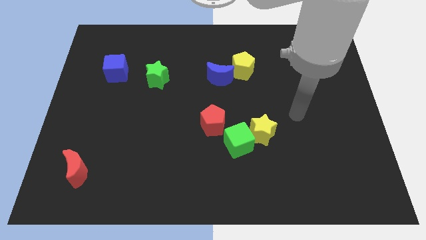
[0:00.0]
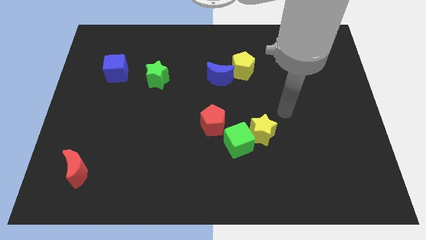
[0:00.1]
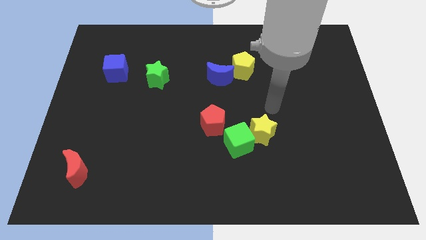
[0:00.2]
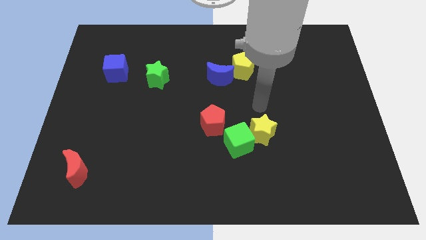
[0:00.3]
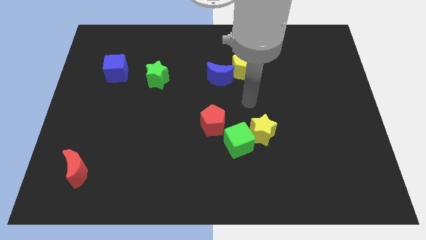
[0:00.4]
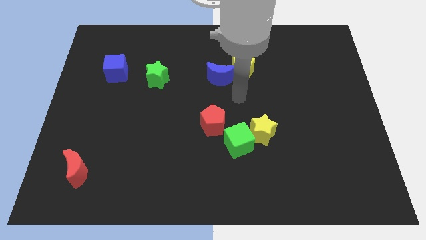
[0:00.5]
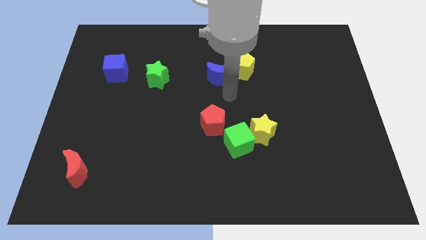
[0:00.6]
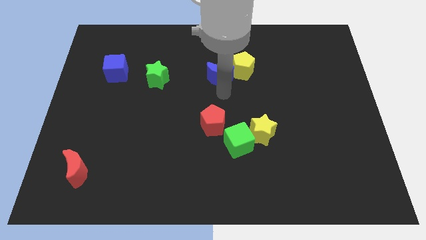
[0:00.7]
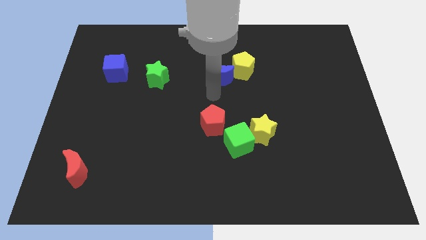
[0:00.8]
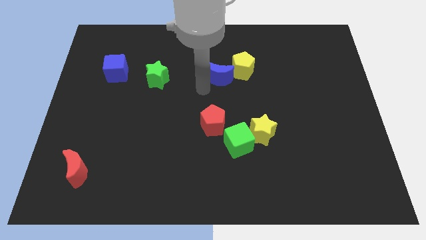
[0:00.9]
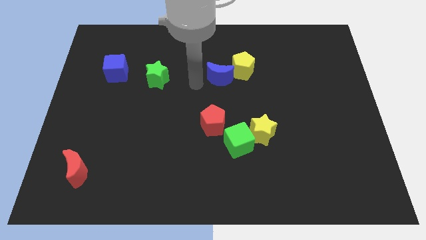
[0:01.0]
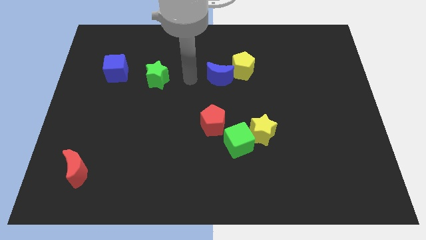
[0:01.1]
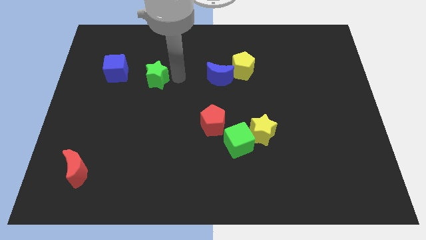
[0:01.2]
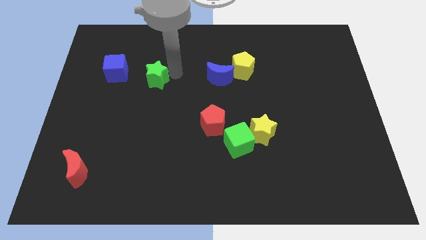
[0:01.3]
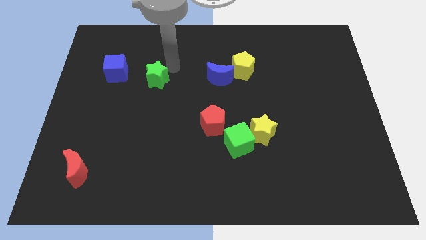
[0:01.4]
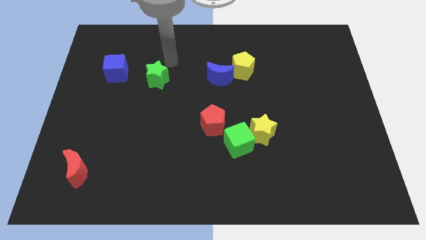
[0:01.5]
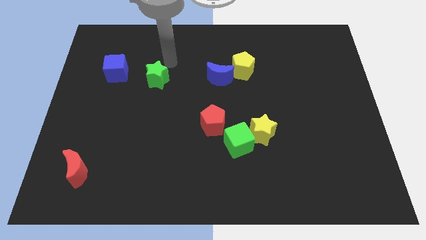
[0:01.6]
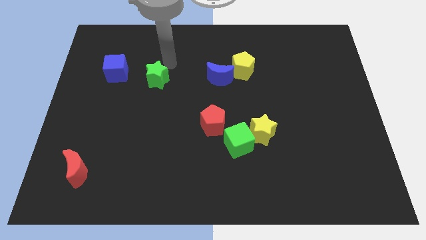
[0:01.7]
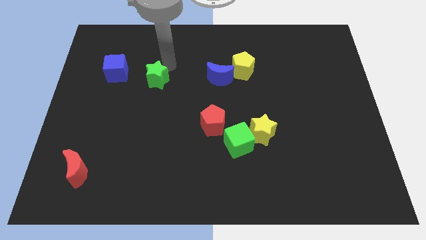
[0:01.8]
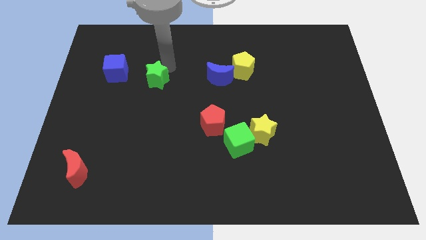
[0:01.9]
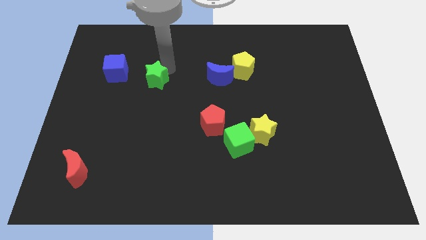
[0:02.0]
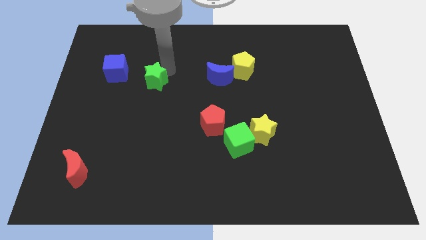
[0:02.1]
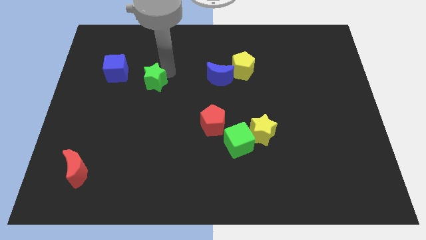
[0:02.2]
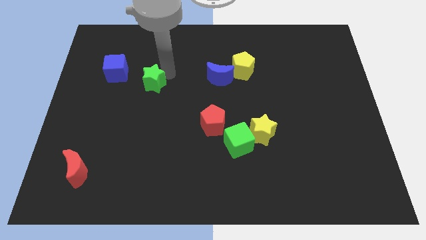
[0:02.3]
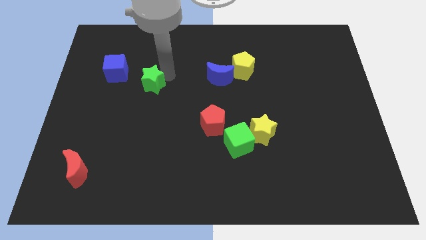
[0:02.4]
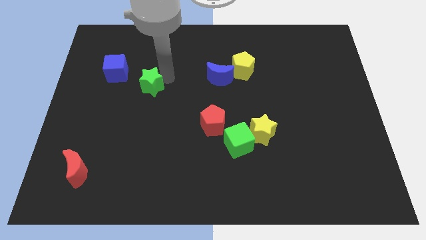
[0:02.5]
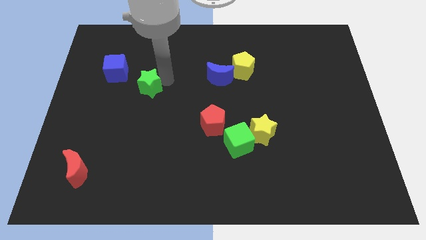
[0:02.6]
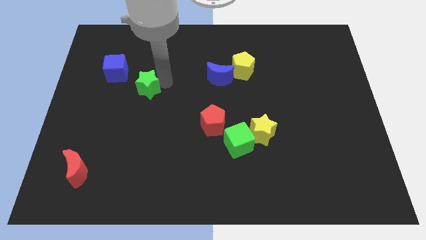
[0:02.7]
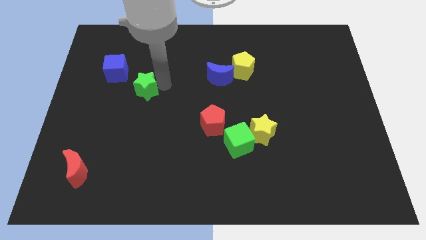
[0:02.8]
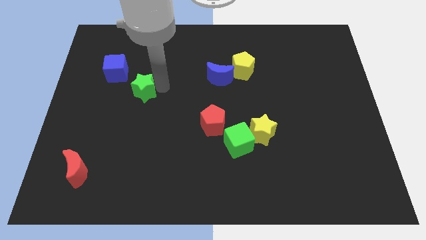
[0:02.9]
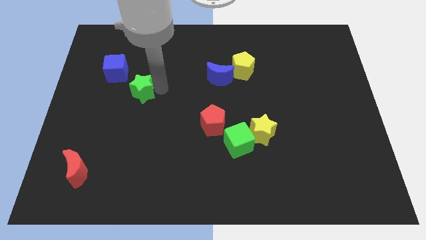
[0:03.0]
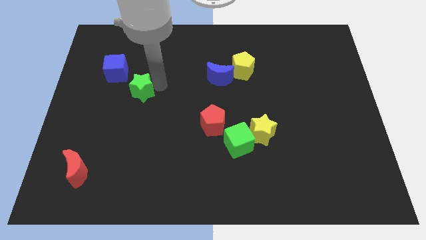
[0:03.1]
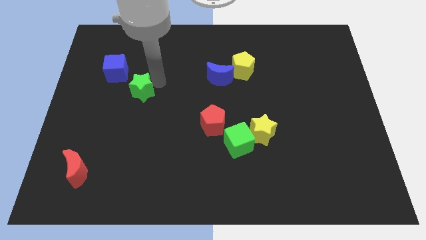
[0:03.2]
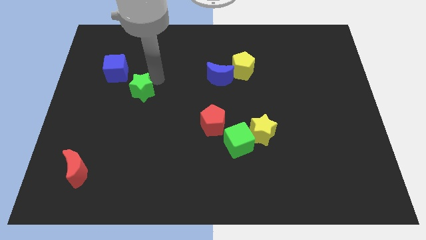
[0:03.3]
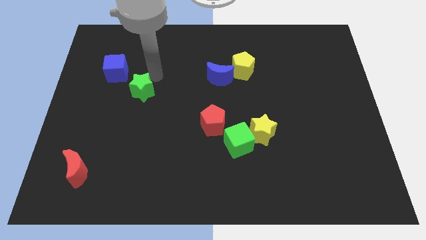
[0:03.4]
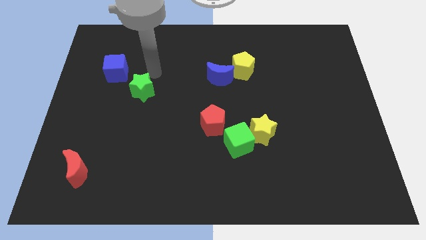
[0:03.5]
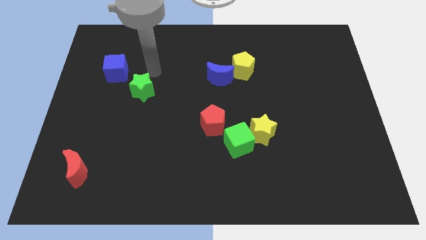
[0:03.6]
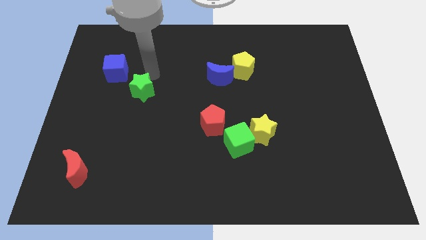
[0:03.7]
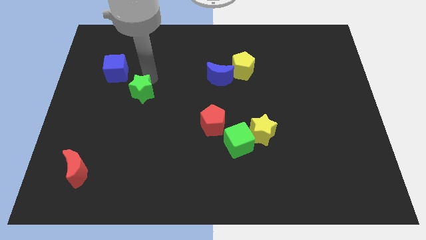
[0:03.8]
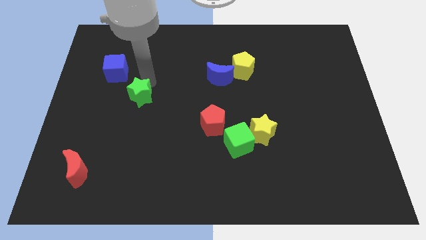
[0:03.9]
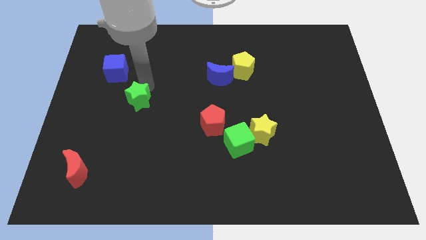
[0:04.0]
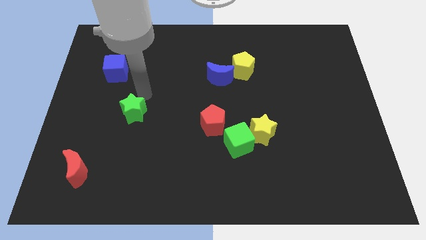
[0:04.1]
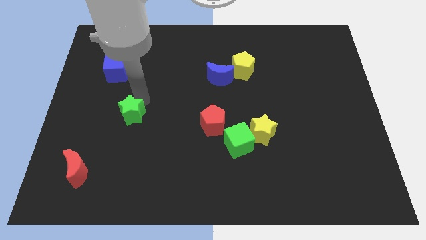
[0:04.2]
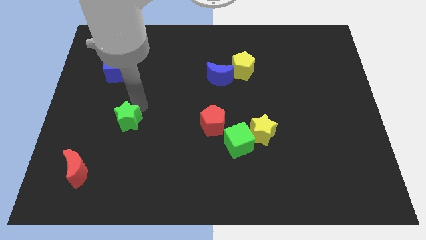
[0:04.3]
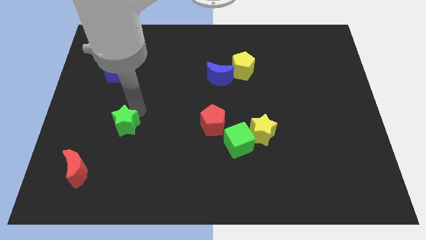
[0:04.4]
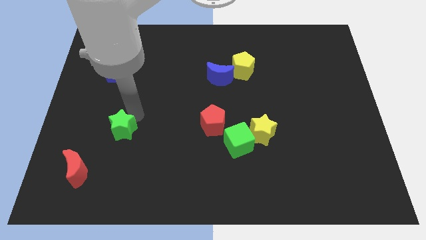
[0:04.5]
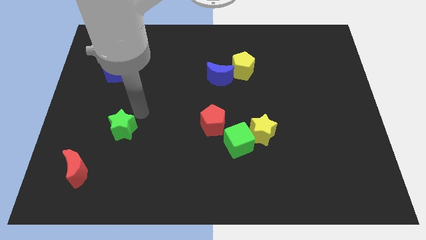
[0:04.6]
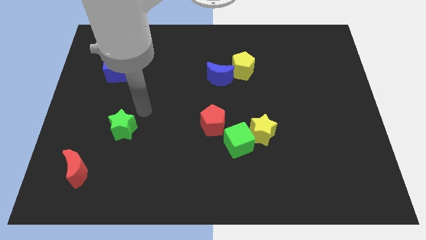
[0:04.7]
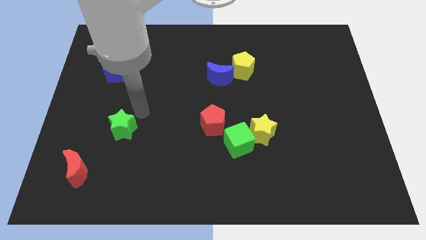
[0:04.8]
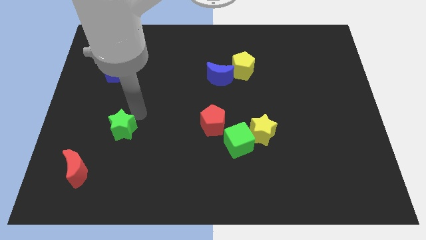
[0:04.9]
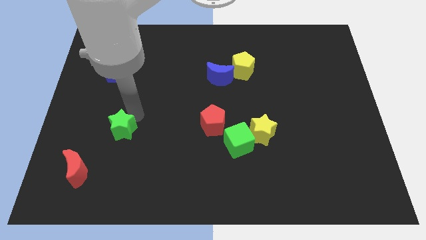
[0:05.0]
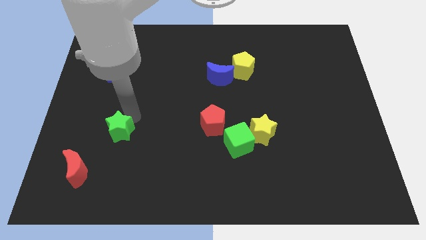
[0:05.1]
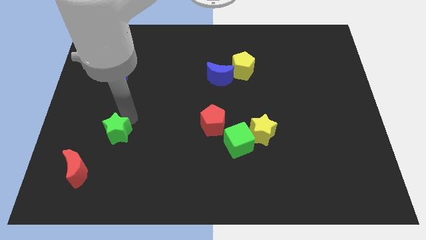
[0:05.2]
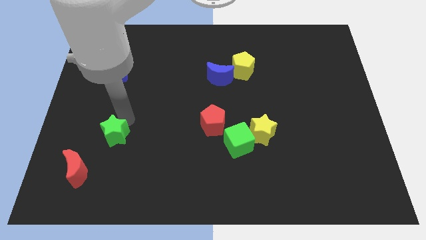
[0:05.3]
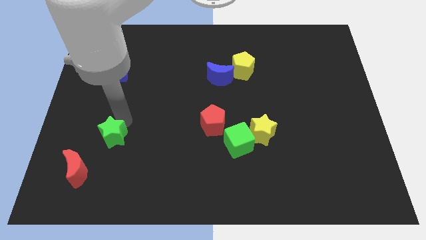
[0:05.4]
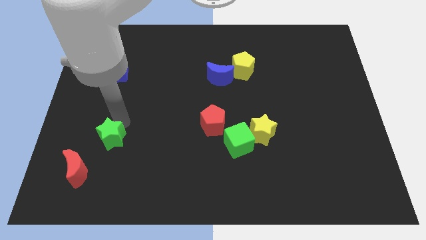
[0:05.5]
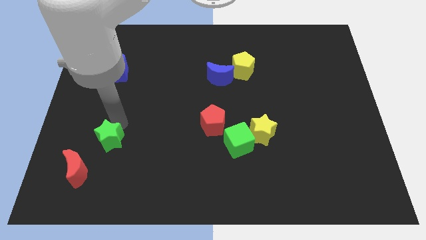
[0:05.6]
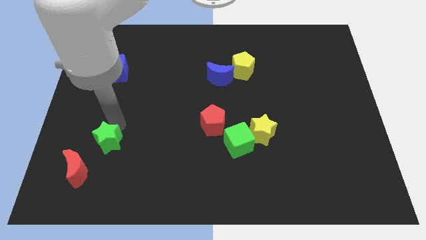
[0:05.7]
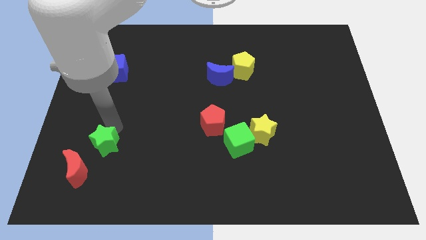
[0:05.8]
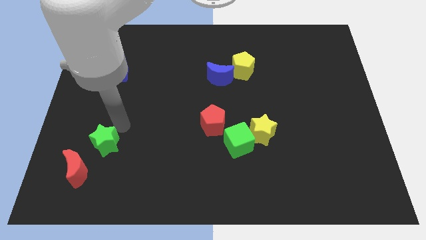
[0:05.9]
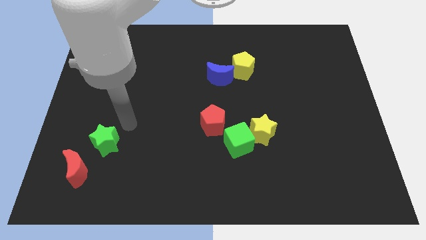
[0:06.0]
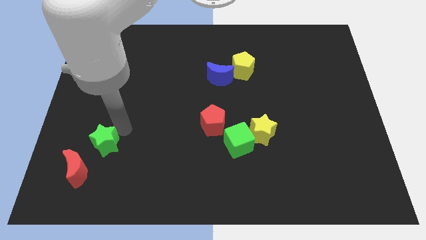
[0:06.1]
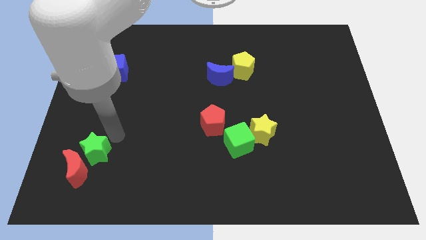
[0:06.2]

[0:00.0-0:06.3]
slide the green star towards the red moon

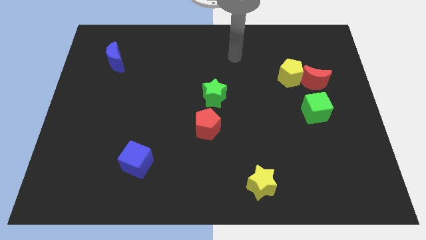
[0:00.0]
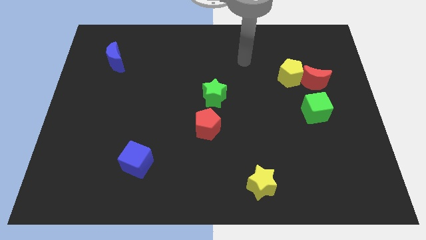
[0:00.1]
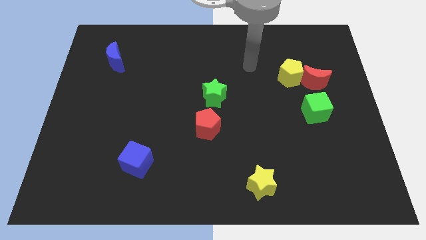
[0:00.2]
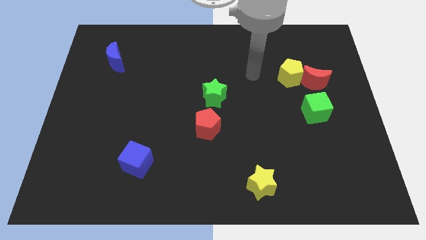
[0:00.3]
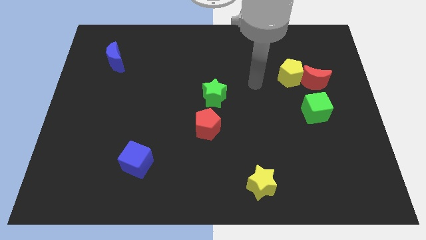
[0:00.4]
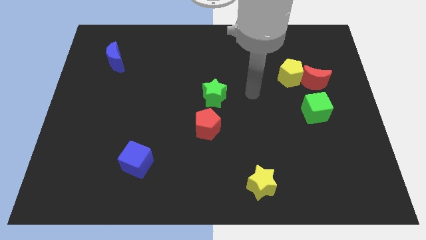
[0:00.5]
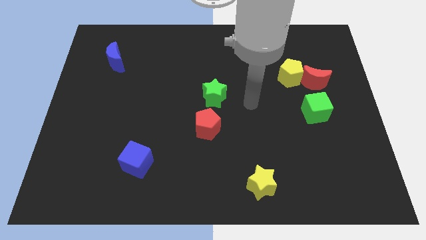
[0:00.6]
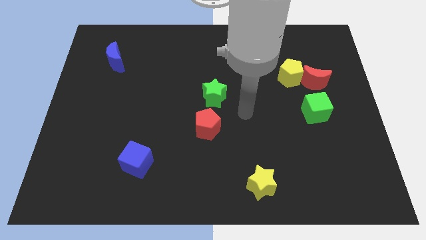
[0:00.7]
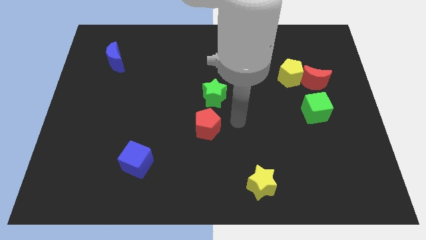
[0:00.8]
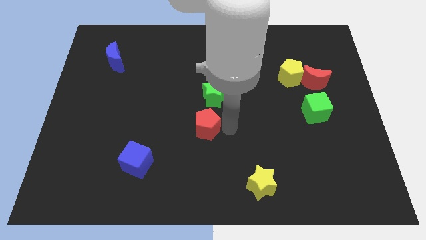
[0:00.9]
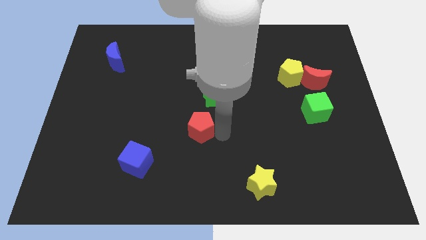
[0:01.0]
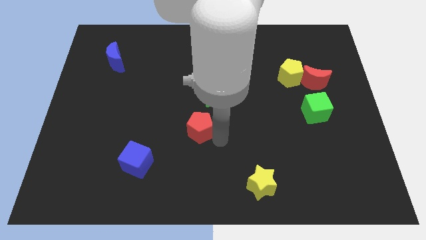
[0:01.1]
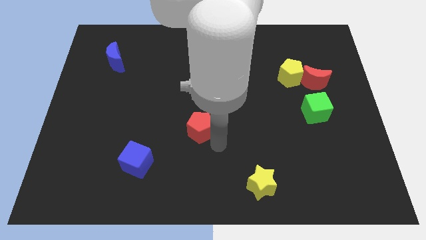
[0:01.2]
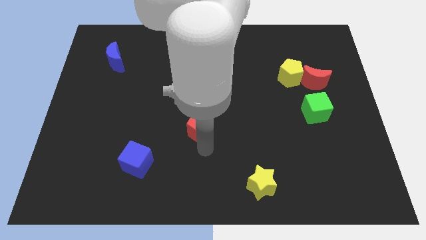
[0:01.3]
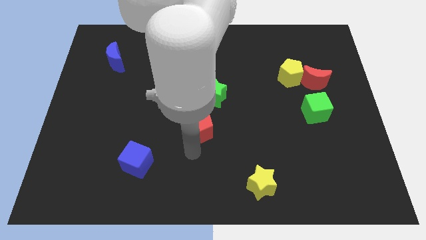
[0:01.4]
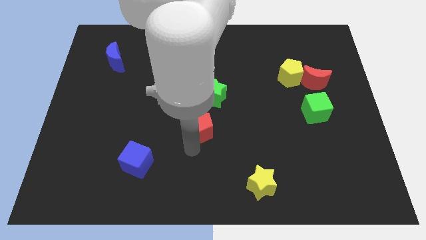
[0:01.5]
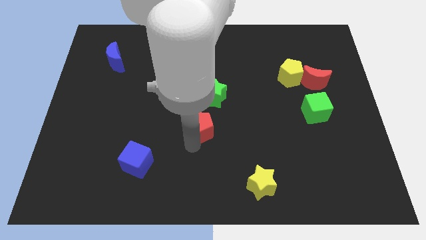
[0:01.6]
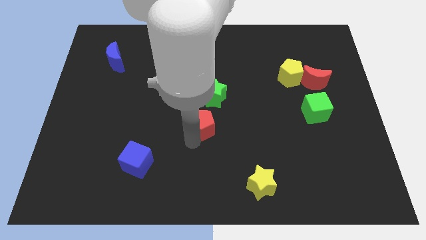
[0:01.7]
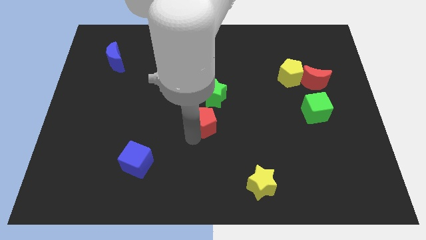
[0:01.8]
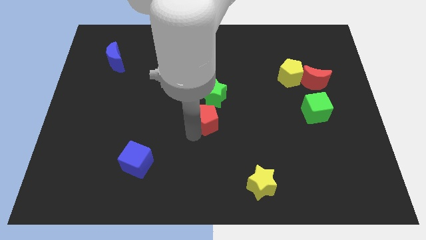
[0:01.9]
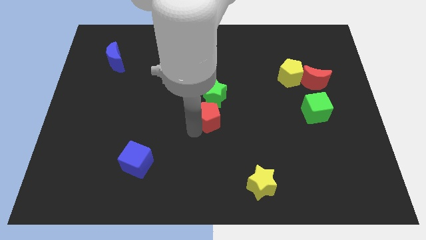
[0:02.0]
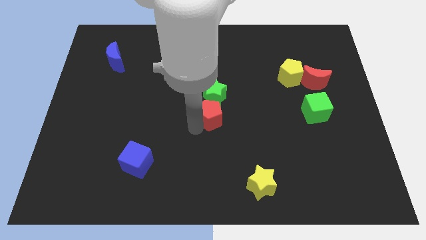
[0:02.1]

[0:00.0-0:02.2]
push the red pentagon next to the green star
